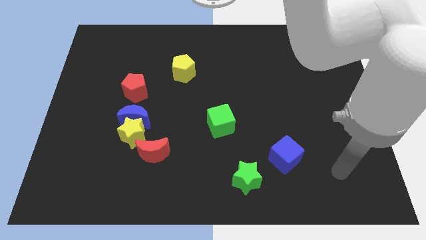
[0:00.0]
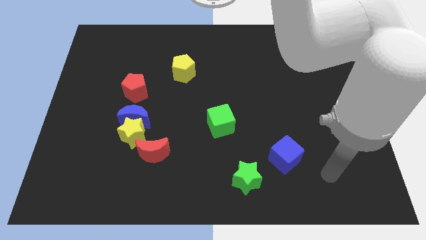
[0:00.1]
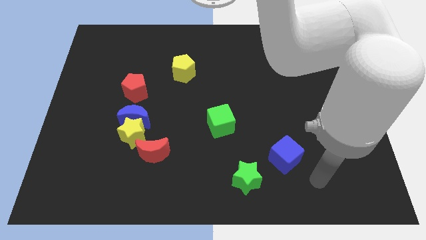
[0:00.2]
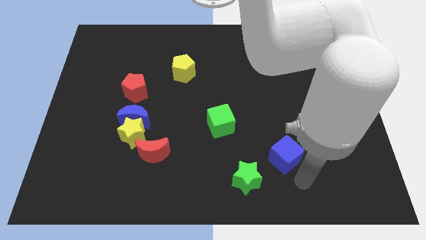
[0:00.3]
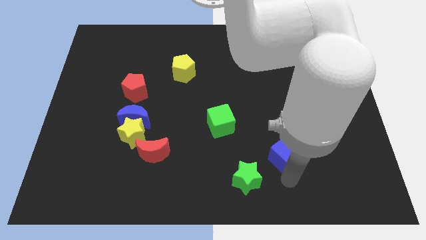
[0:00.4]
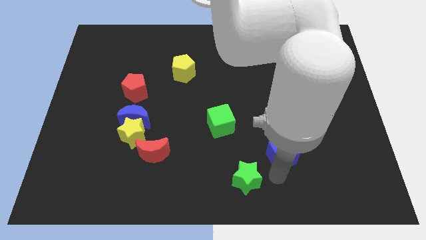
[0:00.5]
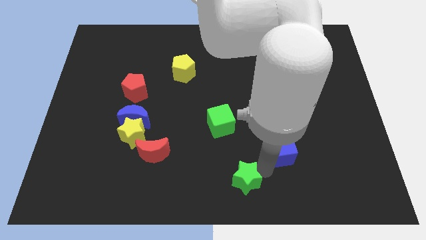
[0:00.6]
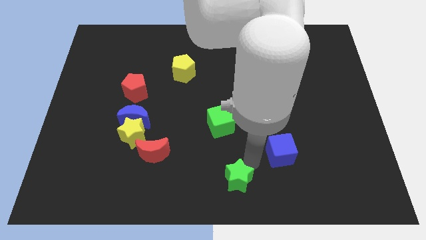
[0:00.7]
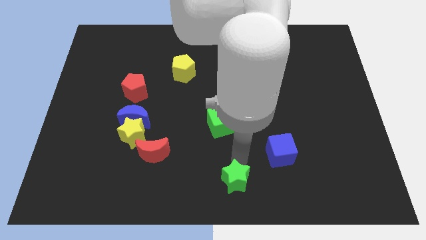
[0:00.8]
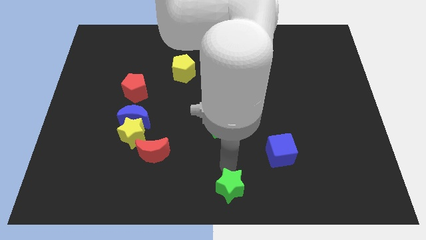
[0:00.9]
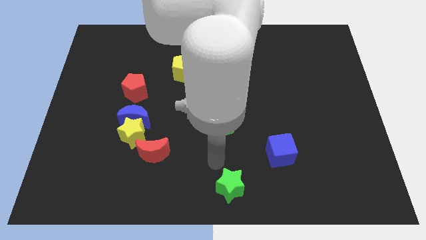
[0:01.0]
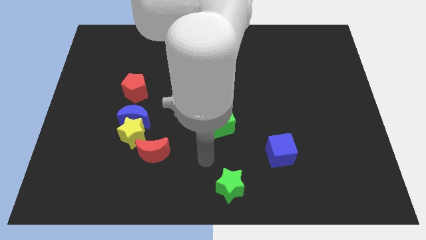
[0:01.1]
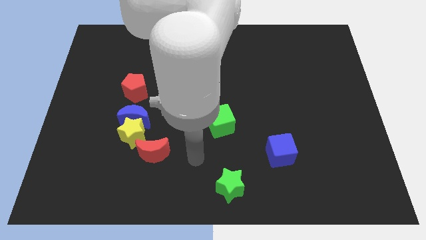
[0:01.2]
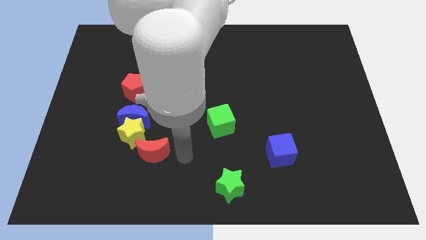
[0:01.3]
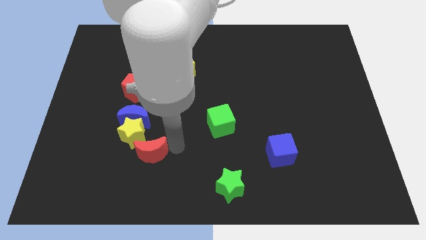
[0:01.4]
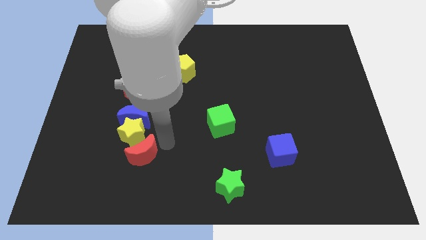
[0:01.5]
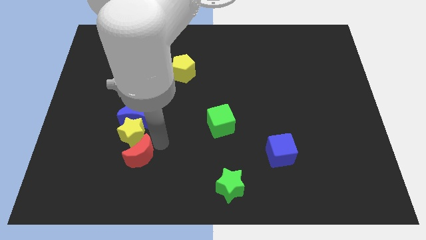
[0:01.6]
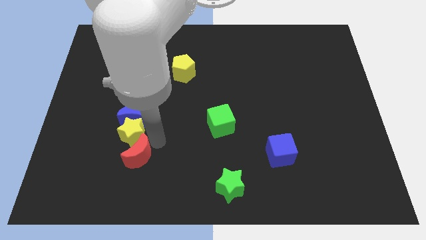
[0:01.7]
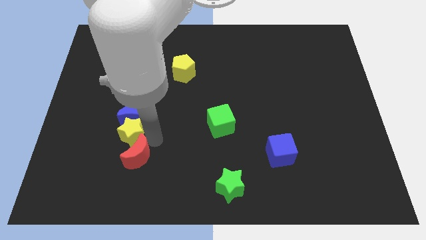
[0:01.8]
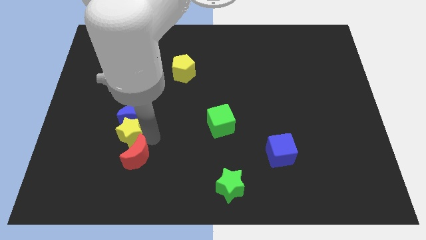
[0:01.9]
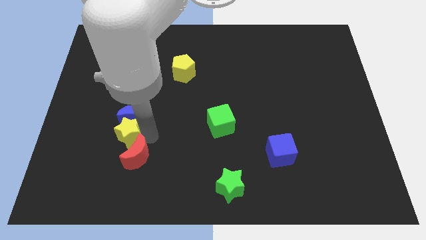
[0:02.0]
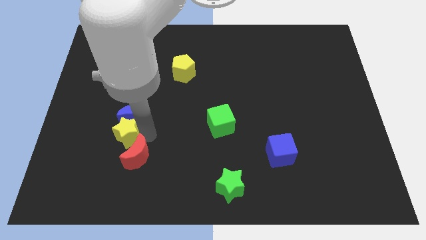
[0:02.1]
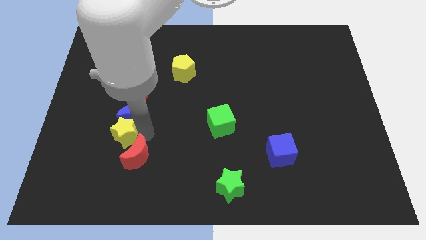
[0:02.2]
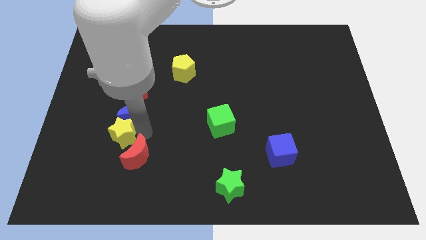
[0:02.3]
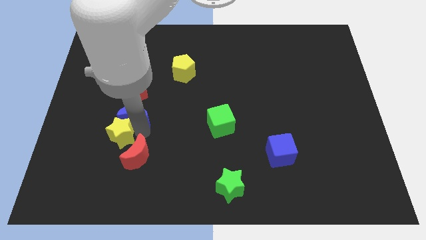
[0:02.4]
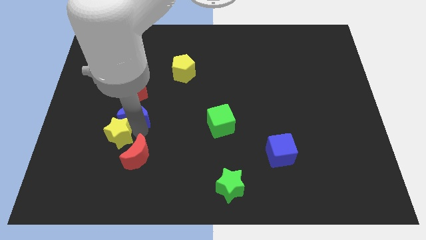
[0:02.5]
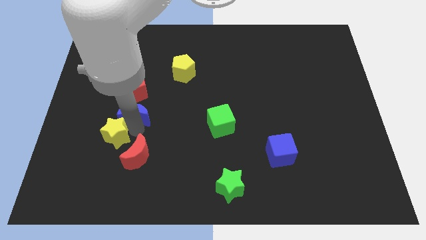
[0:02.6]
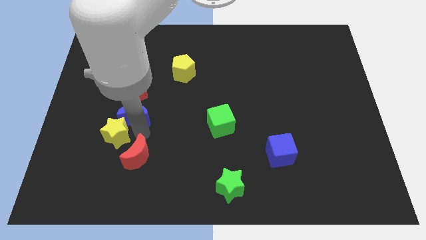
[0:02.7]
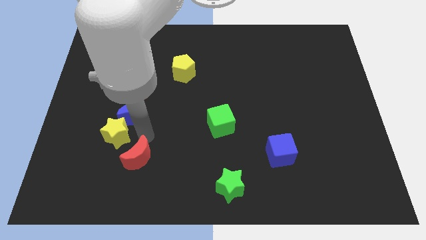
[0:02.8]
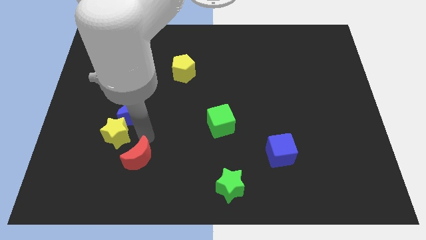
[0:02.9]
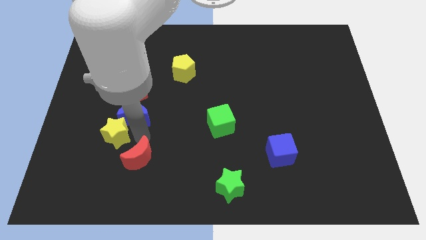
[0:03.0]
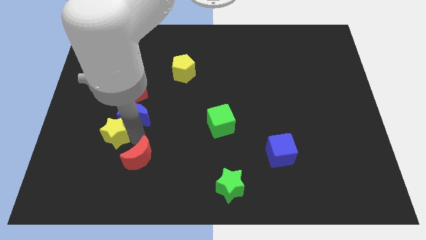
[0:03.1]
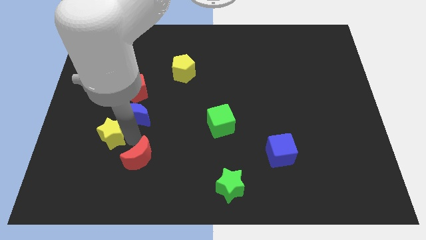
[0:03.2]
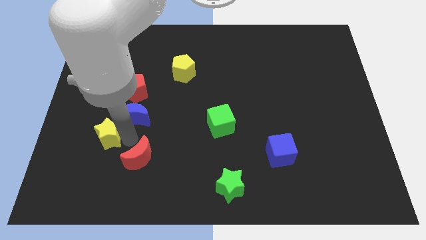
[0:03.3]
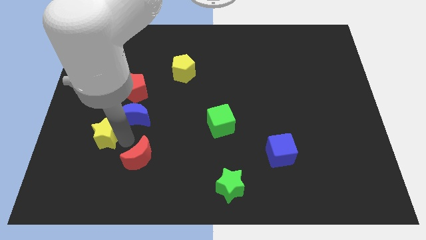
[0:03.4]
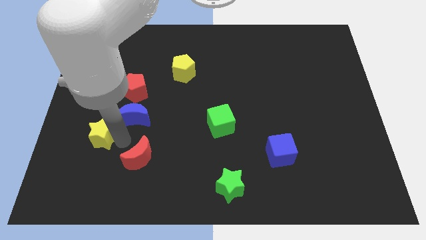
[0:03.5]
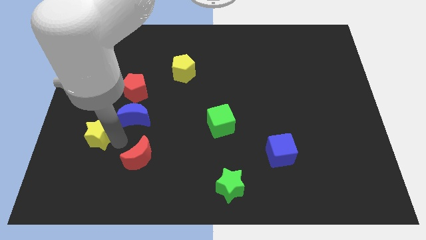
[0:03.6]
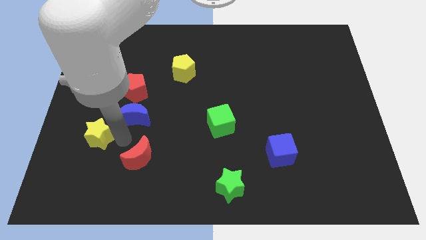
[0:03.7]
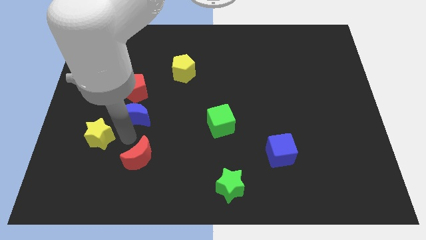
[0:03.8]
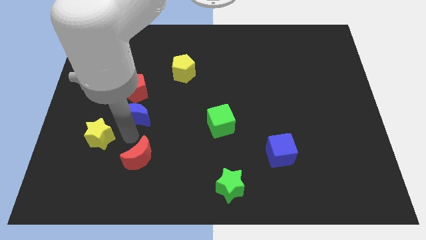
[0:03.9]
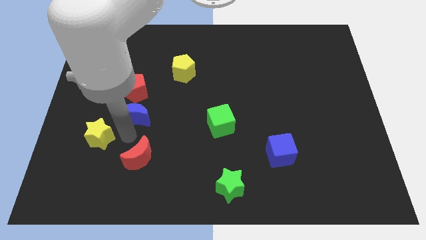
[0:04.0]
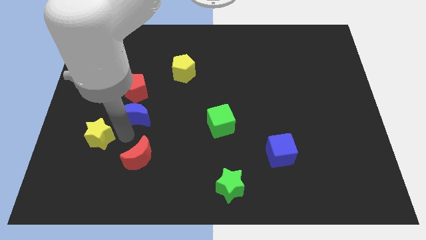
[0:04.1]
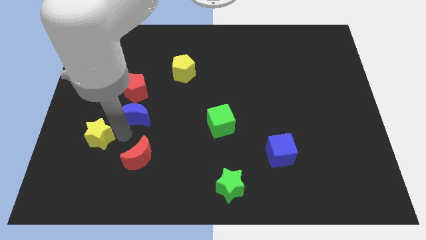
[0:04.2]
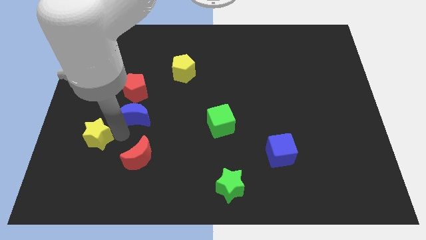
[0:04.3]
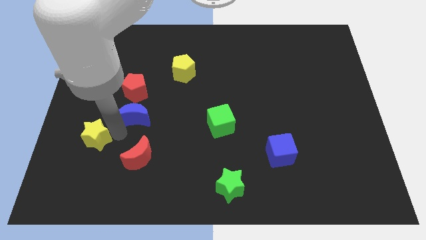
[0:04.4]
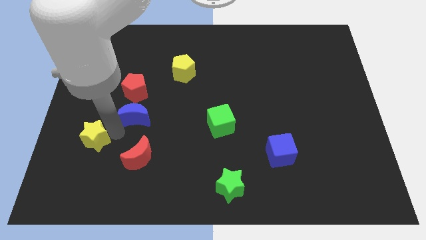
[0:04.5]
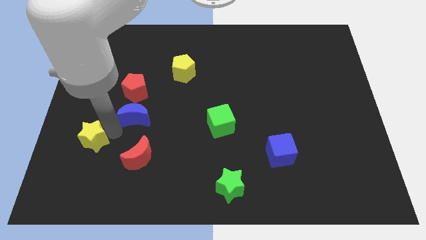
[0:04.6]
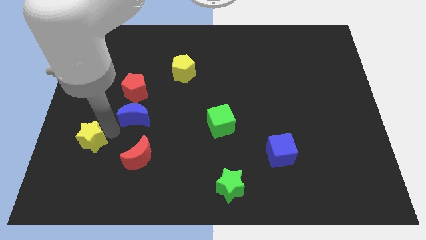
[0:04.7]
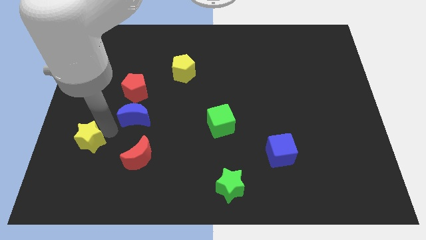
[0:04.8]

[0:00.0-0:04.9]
pull the yellow star apart from the blue moon and red moon

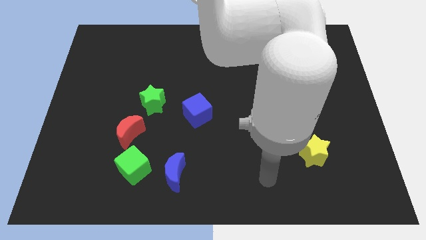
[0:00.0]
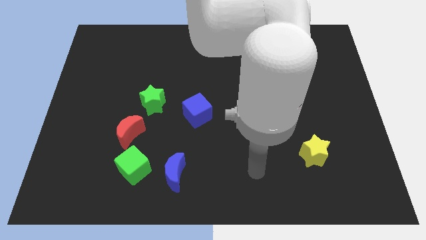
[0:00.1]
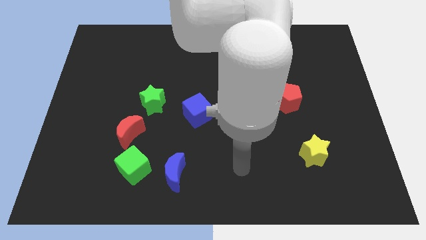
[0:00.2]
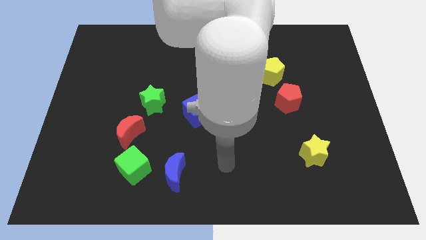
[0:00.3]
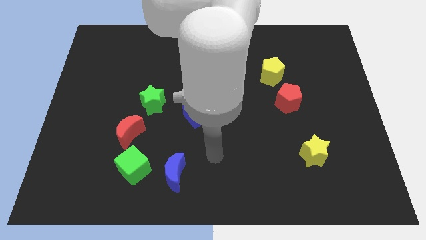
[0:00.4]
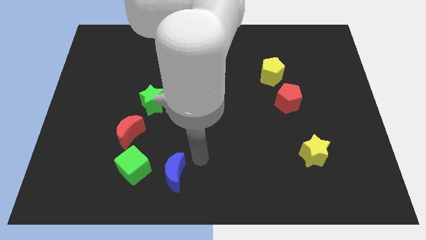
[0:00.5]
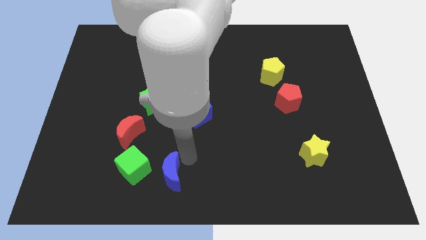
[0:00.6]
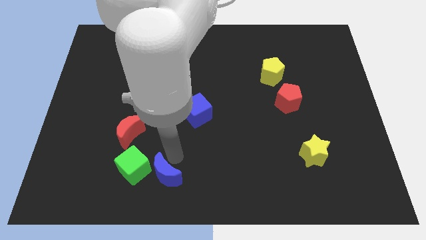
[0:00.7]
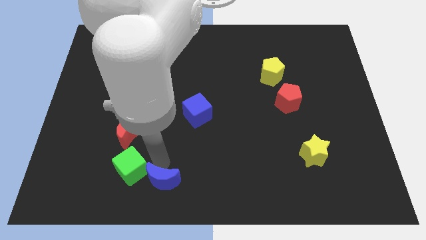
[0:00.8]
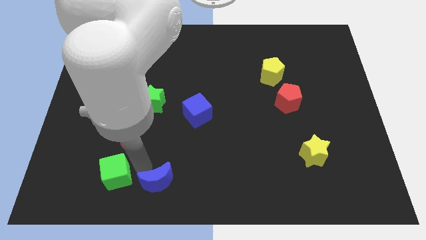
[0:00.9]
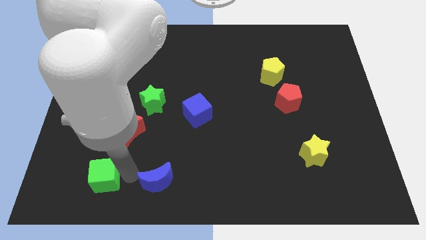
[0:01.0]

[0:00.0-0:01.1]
pull the blue moon apart from the green cube

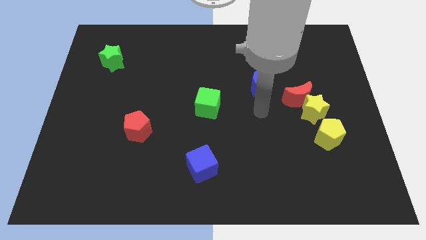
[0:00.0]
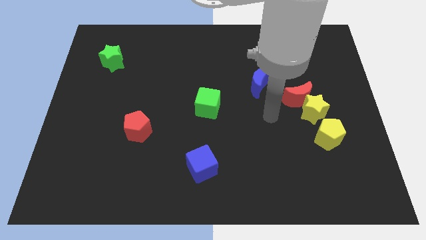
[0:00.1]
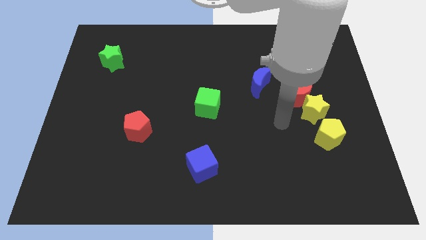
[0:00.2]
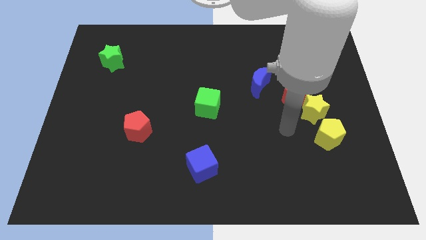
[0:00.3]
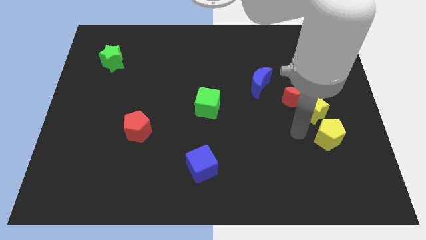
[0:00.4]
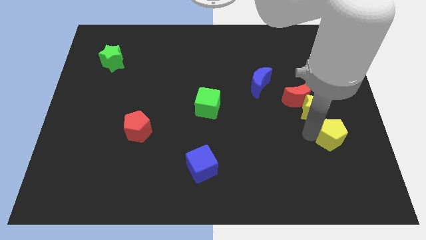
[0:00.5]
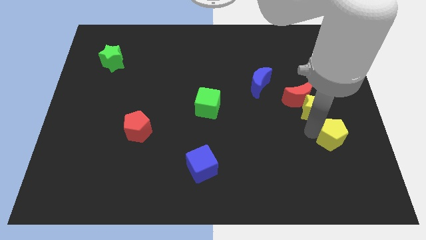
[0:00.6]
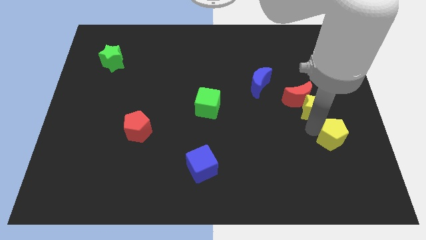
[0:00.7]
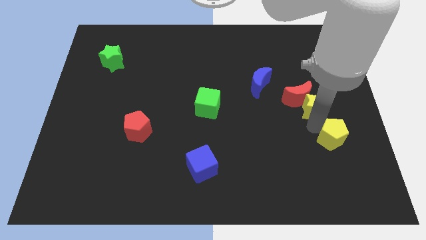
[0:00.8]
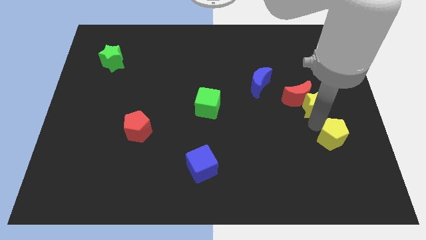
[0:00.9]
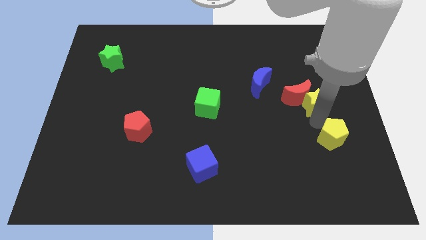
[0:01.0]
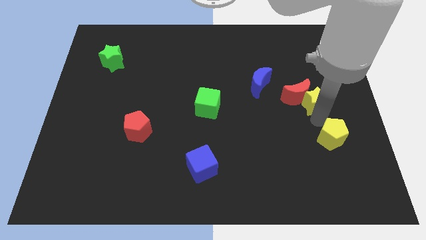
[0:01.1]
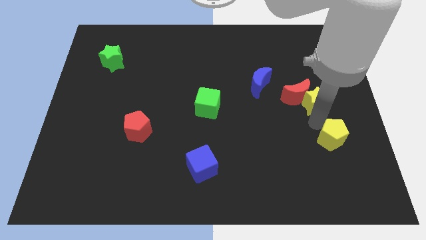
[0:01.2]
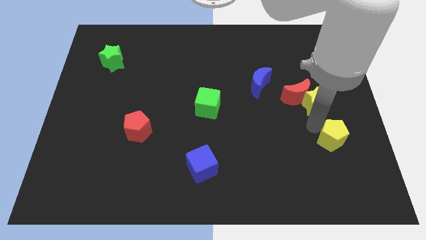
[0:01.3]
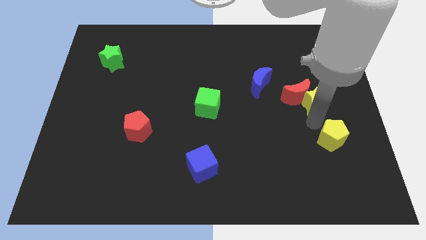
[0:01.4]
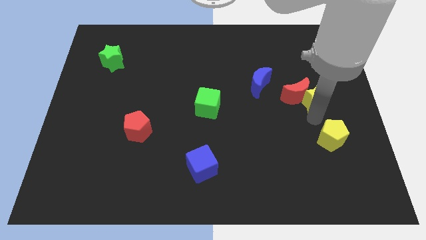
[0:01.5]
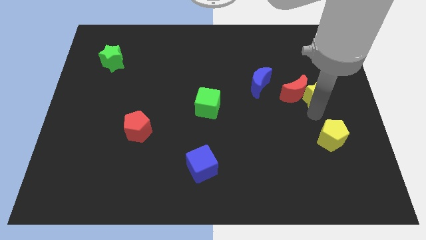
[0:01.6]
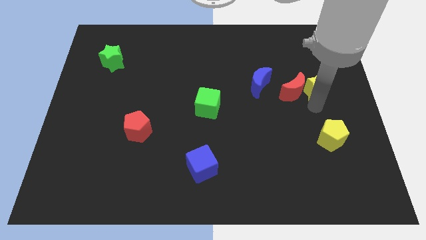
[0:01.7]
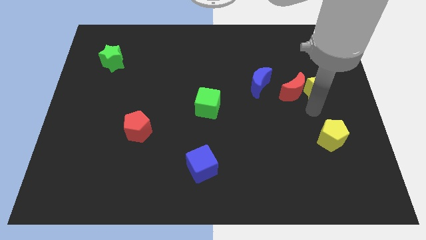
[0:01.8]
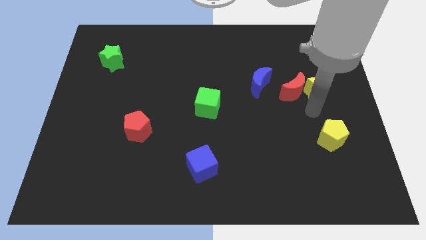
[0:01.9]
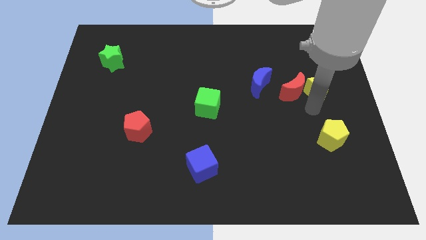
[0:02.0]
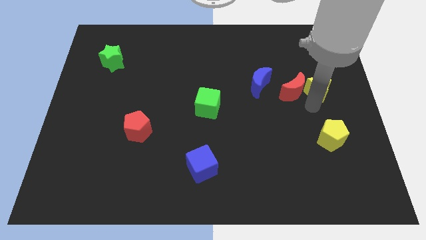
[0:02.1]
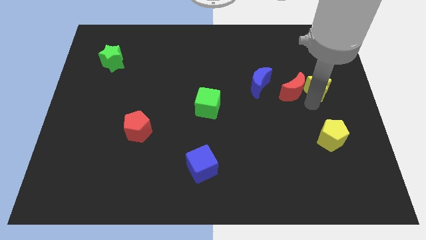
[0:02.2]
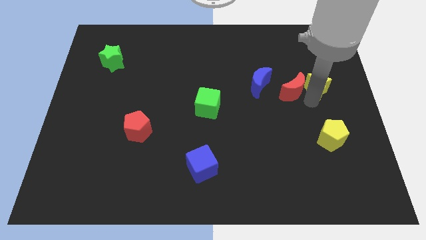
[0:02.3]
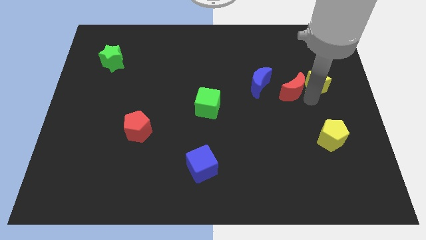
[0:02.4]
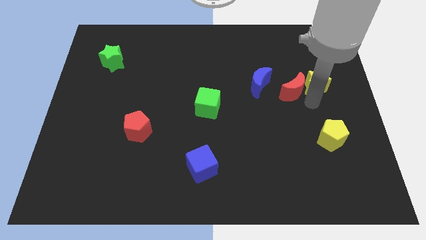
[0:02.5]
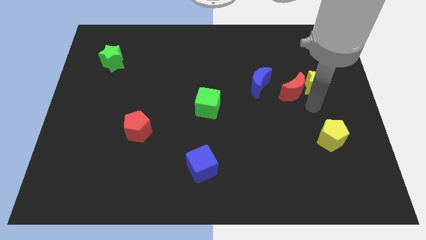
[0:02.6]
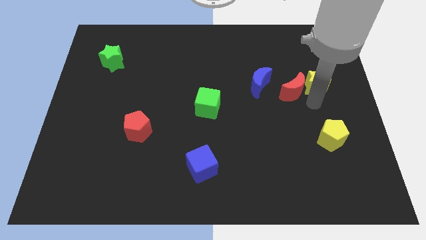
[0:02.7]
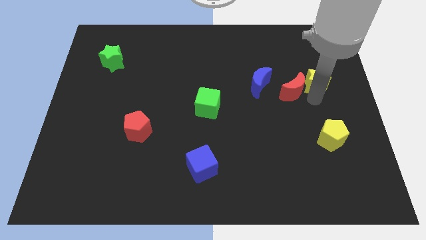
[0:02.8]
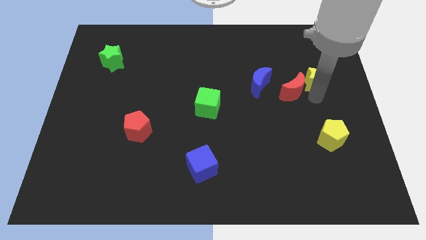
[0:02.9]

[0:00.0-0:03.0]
separate the yellow star from the red moon and yellow pentagon

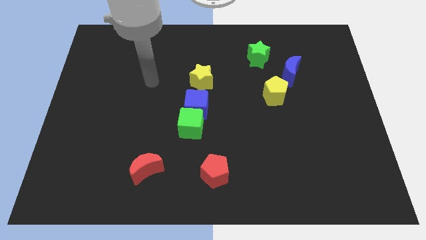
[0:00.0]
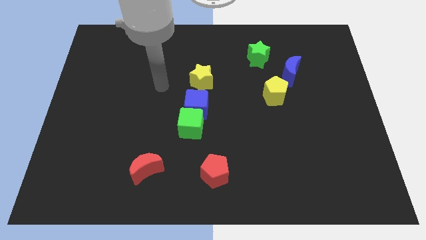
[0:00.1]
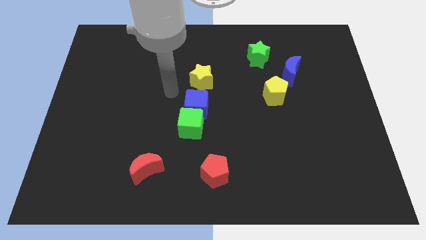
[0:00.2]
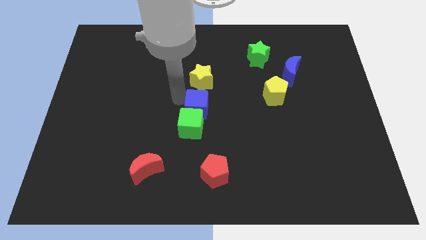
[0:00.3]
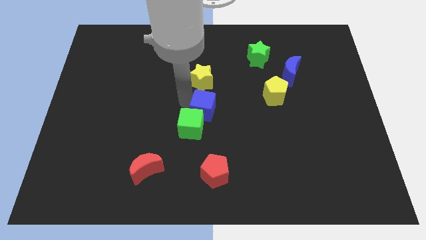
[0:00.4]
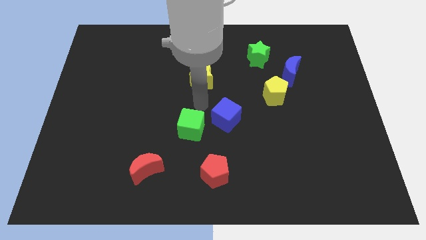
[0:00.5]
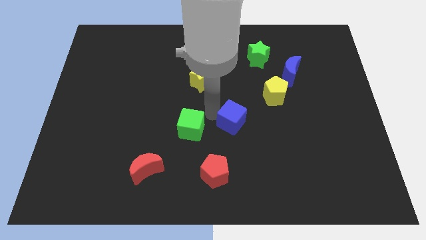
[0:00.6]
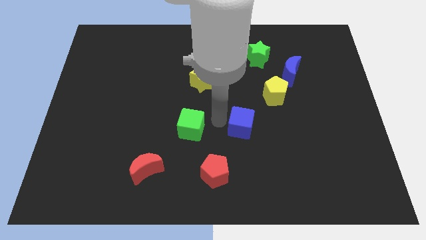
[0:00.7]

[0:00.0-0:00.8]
move the green cube away from the blue cube
